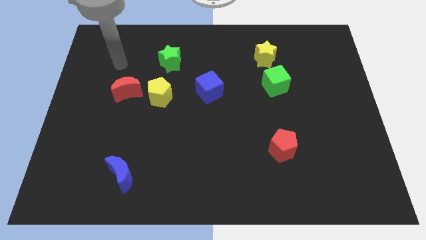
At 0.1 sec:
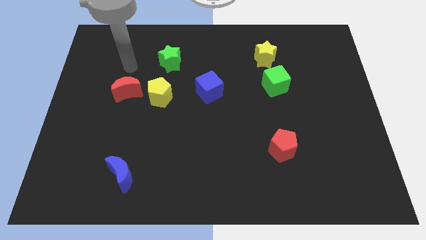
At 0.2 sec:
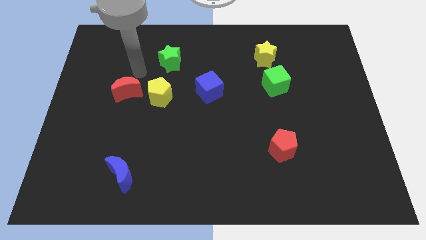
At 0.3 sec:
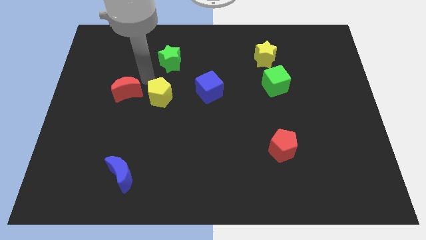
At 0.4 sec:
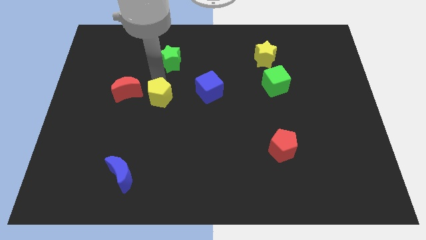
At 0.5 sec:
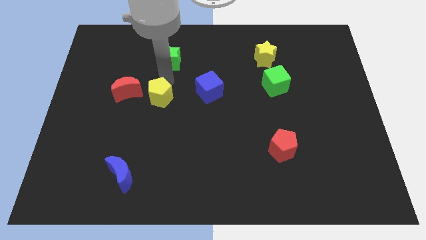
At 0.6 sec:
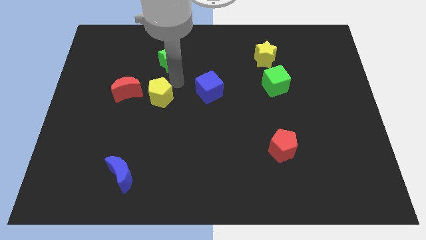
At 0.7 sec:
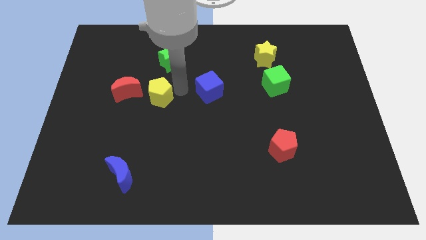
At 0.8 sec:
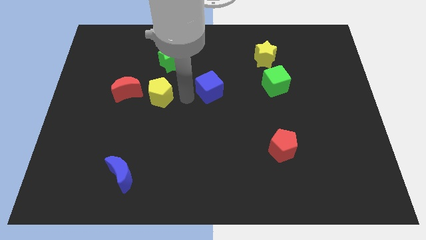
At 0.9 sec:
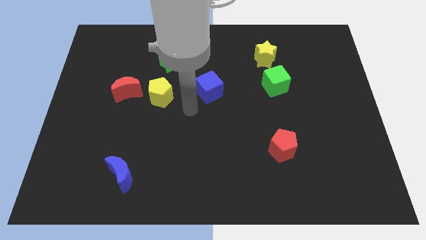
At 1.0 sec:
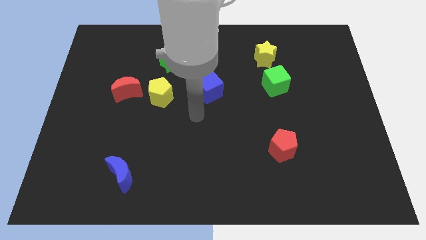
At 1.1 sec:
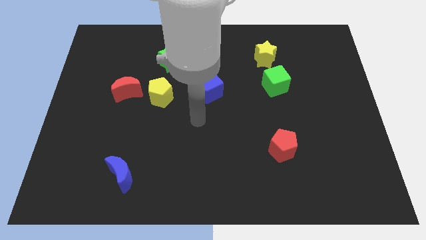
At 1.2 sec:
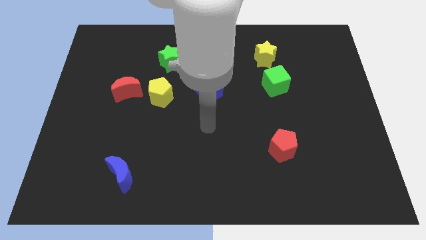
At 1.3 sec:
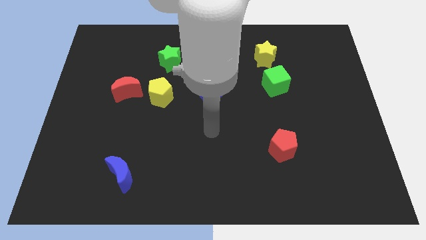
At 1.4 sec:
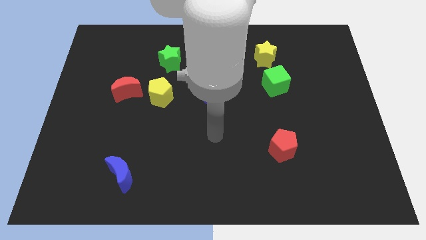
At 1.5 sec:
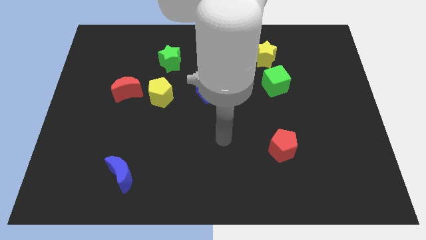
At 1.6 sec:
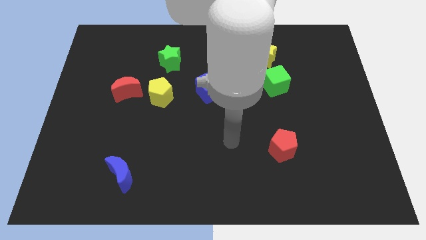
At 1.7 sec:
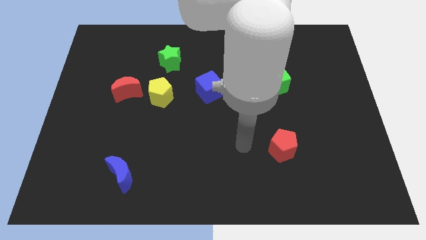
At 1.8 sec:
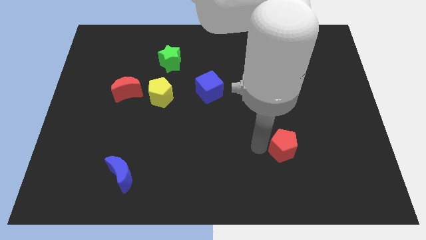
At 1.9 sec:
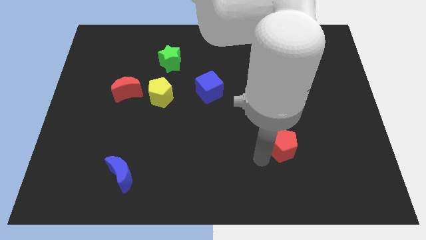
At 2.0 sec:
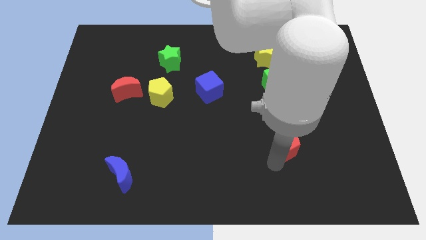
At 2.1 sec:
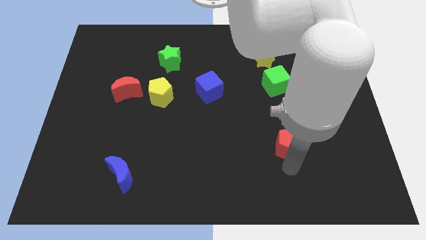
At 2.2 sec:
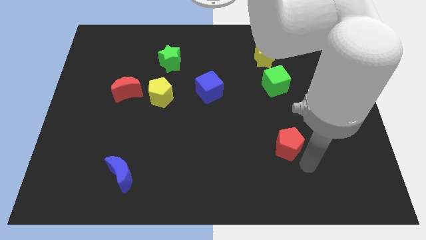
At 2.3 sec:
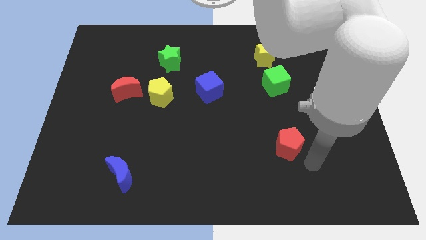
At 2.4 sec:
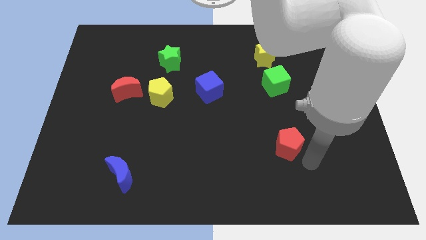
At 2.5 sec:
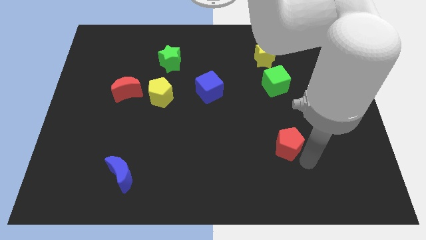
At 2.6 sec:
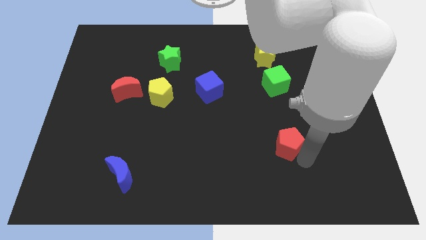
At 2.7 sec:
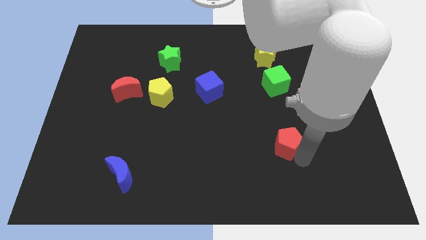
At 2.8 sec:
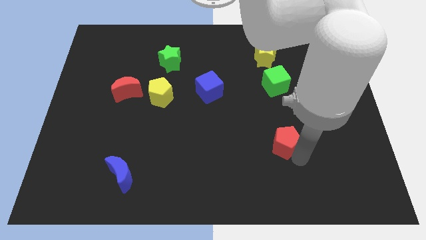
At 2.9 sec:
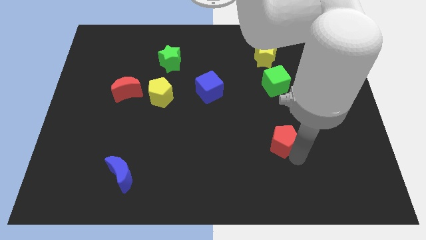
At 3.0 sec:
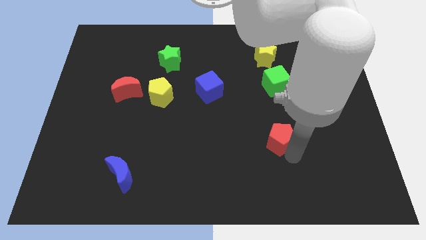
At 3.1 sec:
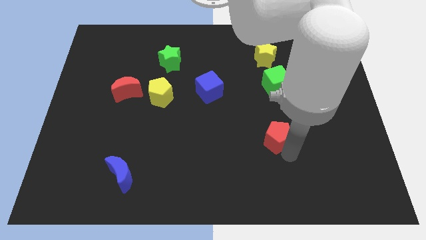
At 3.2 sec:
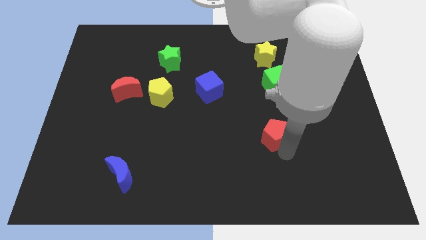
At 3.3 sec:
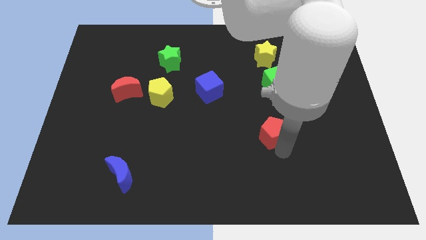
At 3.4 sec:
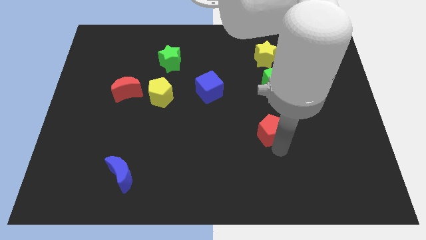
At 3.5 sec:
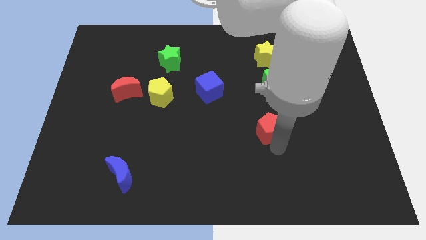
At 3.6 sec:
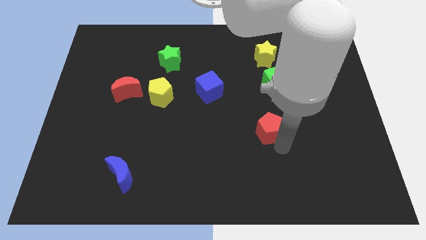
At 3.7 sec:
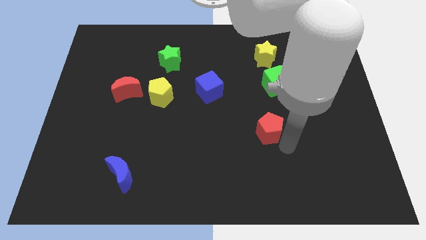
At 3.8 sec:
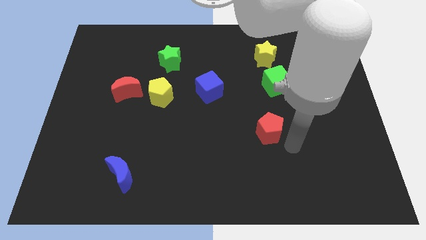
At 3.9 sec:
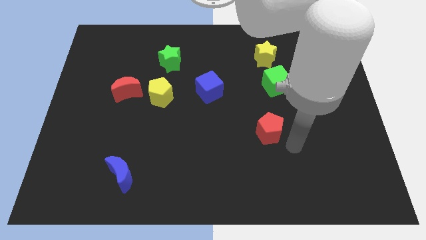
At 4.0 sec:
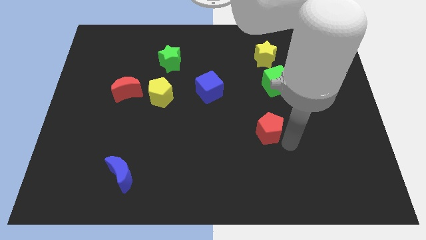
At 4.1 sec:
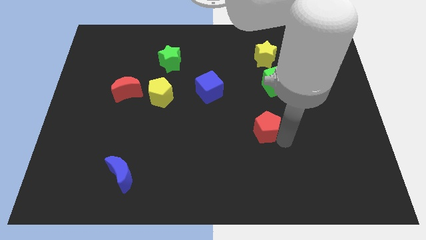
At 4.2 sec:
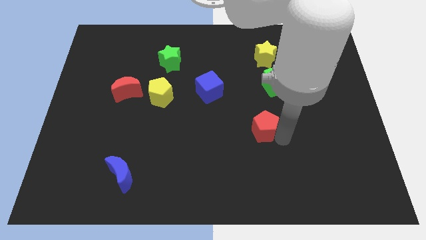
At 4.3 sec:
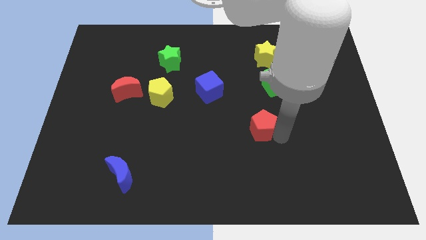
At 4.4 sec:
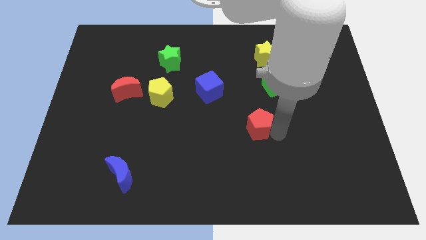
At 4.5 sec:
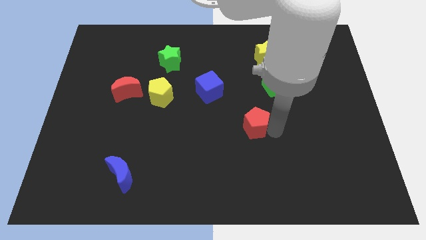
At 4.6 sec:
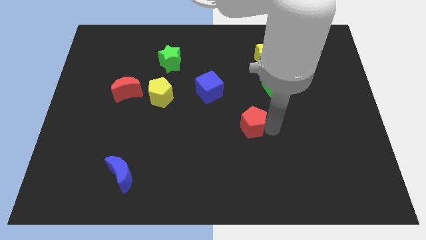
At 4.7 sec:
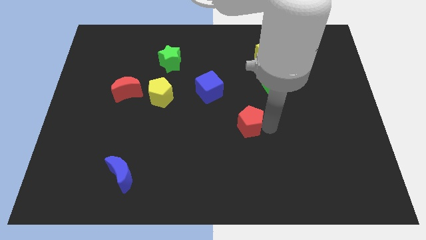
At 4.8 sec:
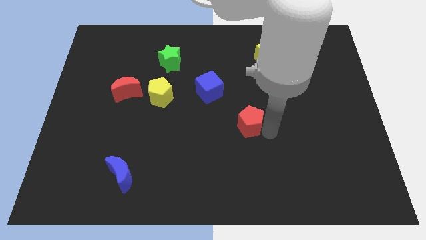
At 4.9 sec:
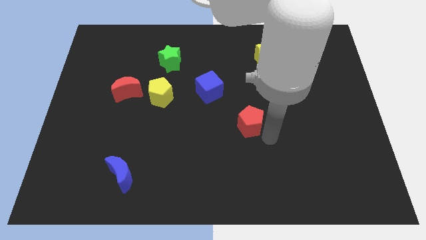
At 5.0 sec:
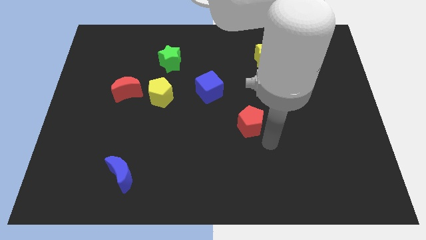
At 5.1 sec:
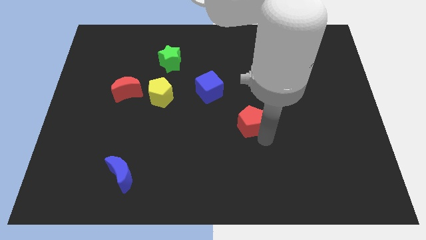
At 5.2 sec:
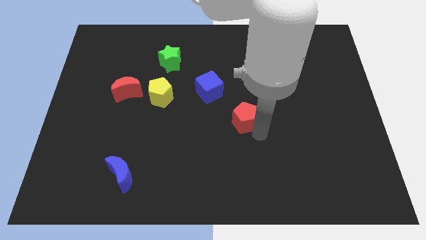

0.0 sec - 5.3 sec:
push the red pentagon to the bottom right side of the blue cube

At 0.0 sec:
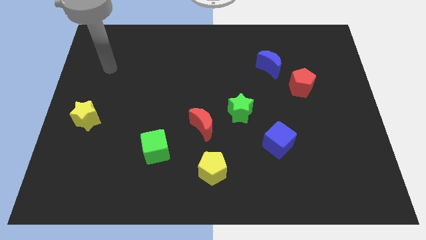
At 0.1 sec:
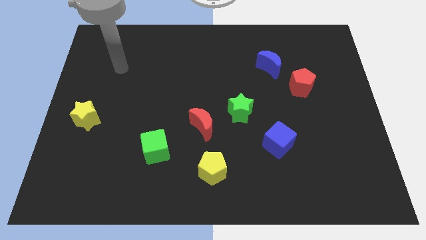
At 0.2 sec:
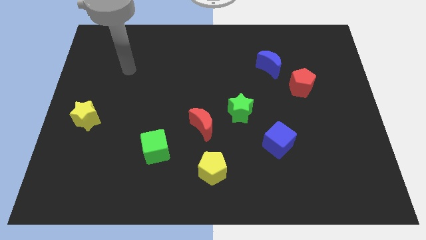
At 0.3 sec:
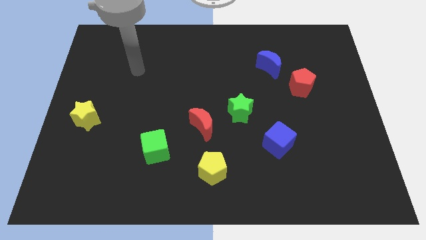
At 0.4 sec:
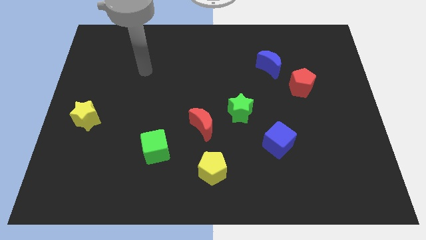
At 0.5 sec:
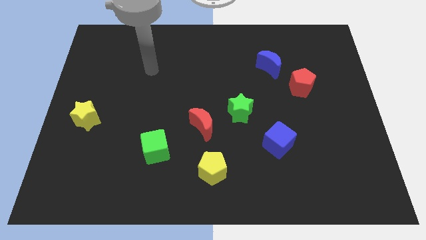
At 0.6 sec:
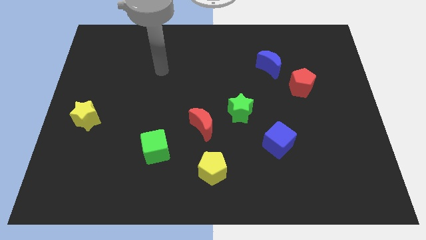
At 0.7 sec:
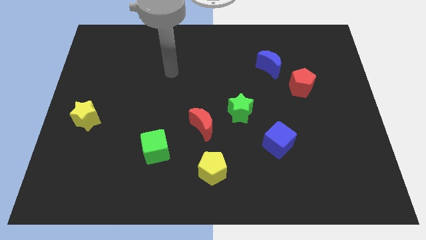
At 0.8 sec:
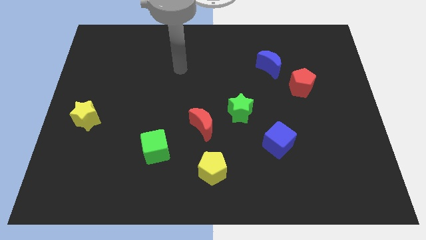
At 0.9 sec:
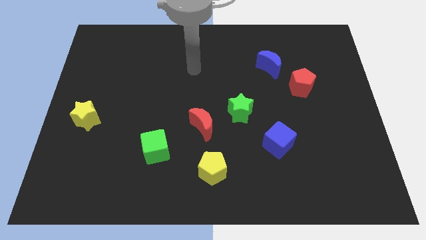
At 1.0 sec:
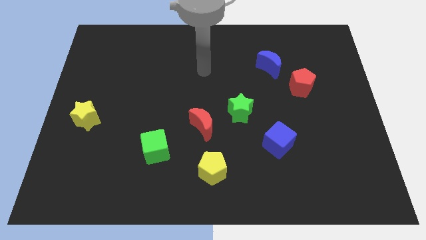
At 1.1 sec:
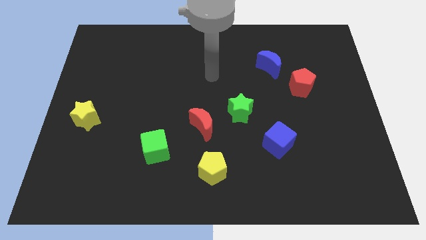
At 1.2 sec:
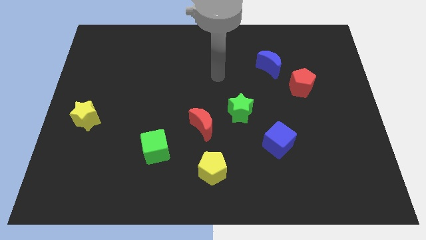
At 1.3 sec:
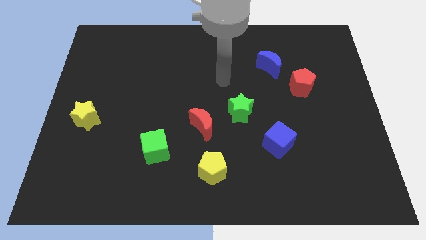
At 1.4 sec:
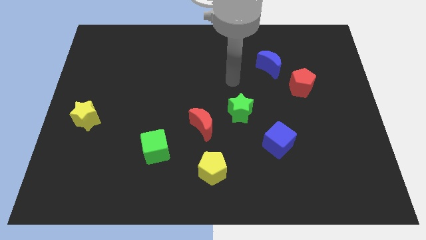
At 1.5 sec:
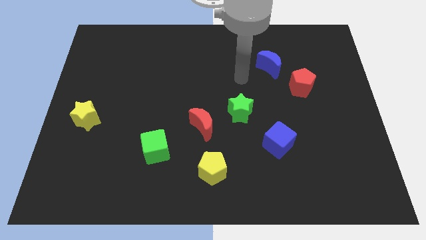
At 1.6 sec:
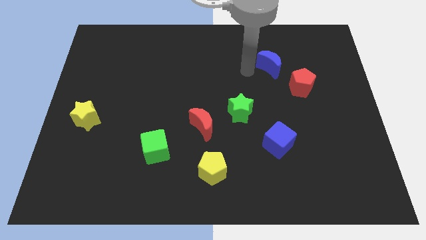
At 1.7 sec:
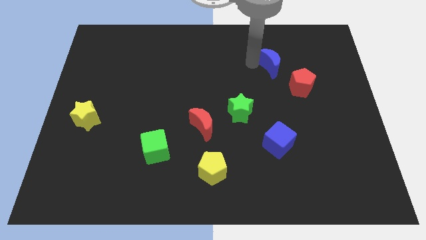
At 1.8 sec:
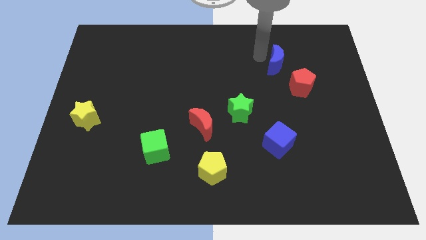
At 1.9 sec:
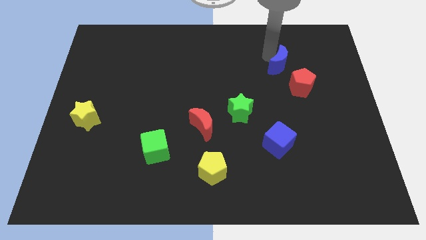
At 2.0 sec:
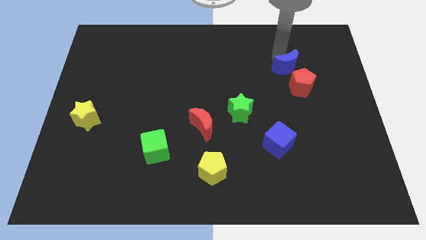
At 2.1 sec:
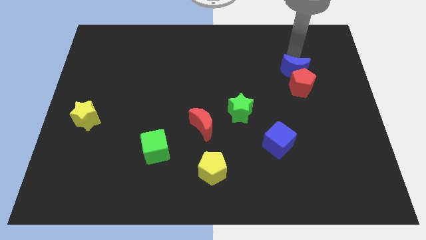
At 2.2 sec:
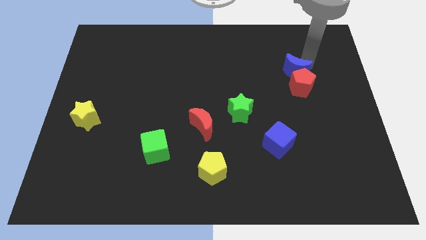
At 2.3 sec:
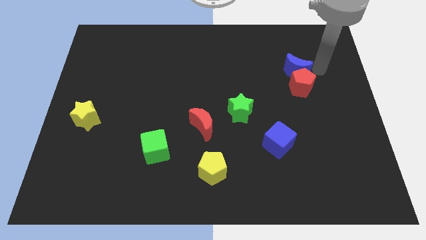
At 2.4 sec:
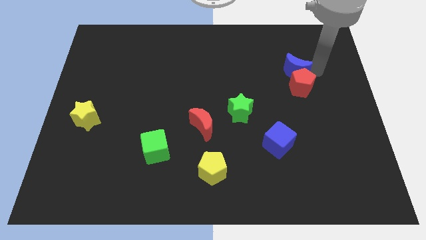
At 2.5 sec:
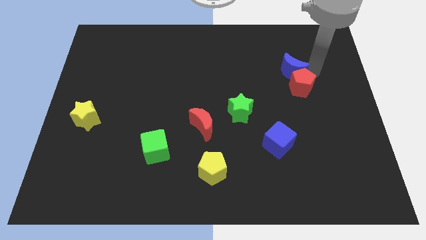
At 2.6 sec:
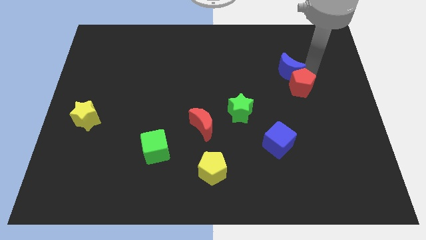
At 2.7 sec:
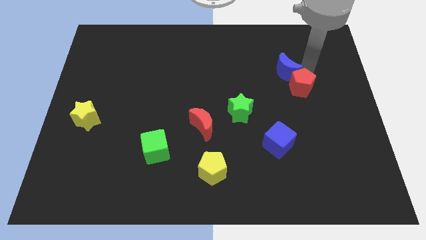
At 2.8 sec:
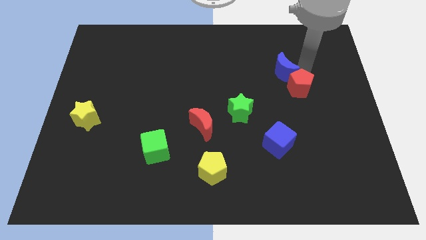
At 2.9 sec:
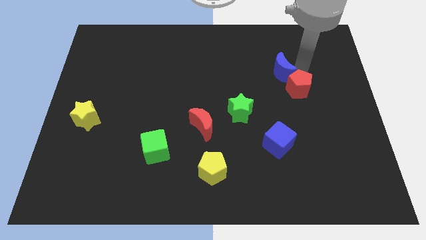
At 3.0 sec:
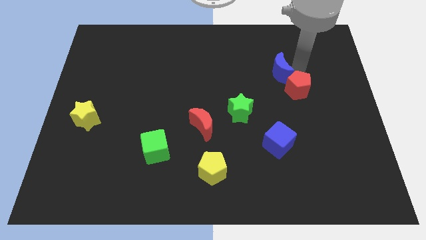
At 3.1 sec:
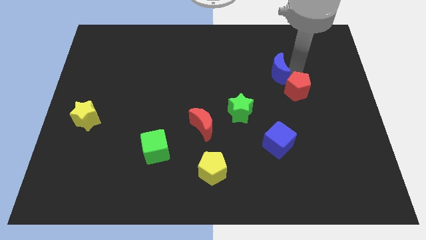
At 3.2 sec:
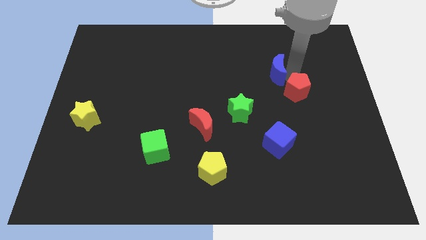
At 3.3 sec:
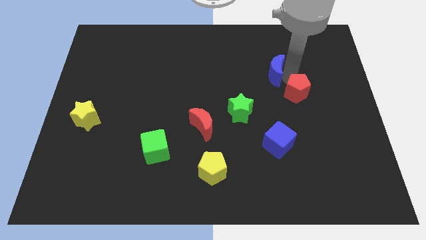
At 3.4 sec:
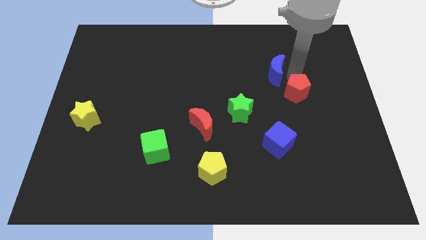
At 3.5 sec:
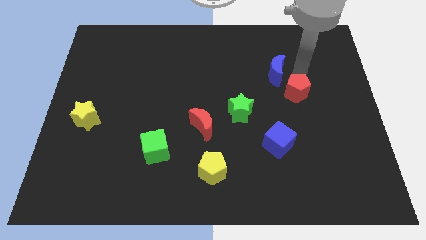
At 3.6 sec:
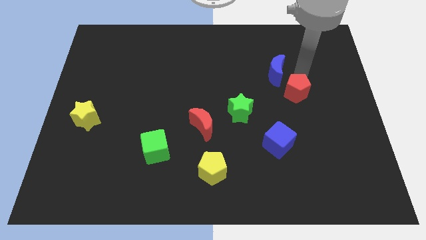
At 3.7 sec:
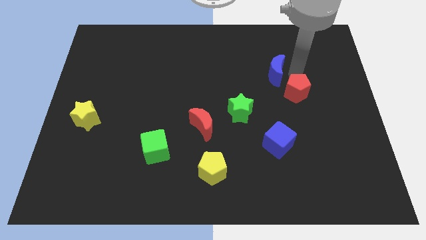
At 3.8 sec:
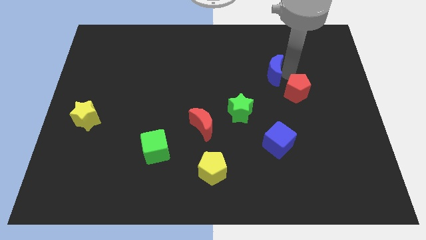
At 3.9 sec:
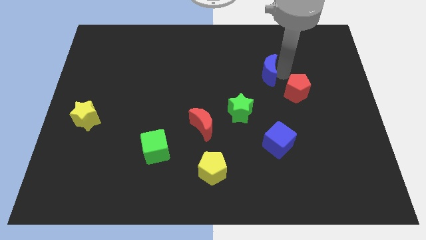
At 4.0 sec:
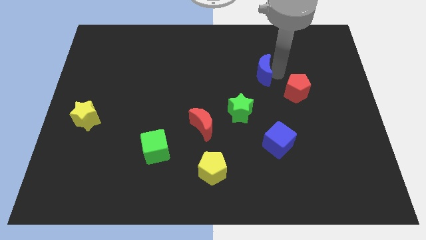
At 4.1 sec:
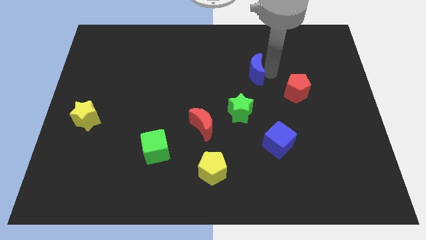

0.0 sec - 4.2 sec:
move the blue moon above the green star
